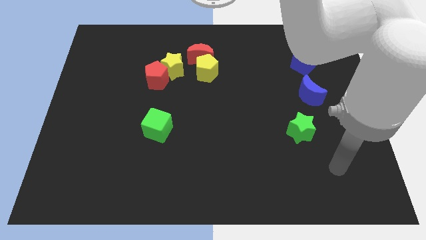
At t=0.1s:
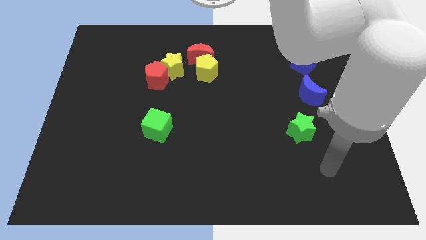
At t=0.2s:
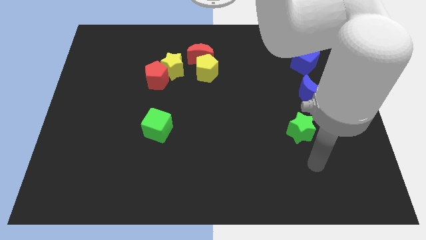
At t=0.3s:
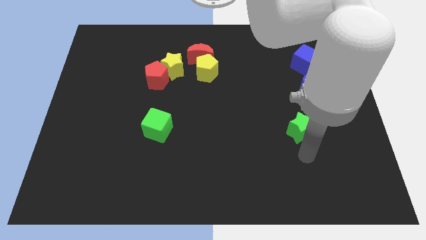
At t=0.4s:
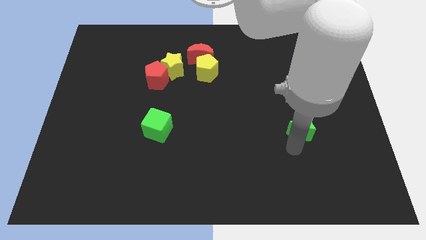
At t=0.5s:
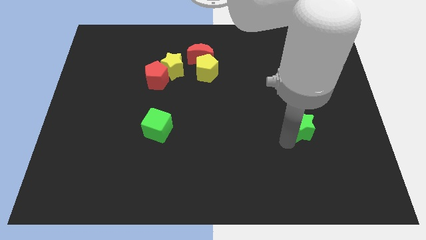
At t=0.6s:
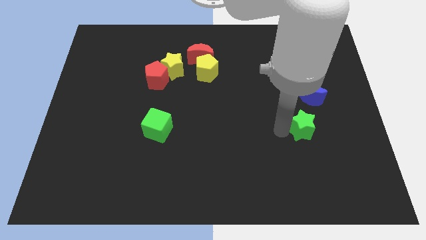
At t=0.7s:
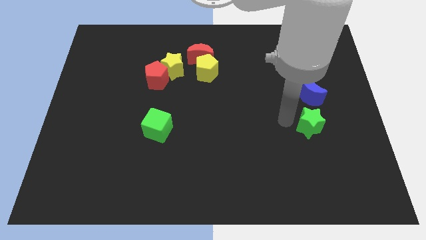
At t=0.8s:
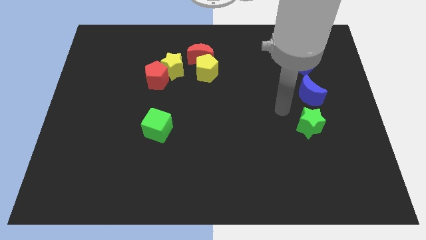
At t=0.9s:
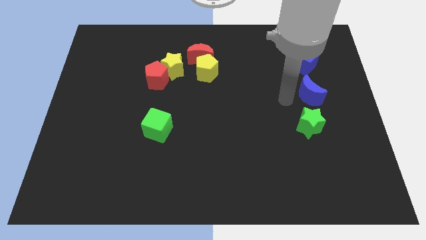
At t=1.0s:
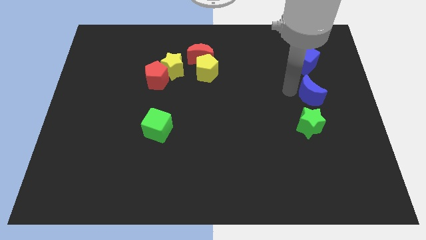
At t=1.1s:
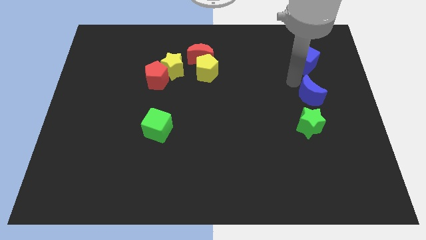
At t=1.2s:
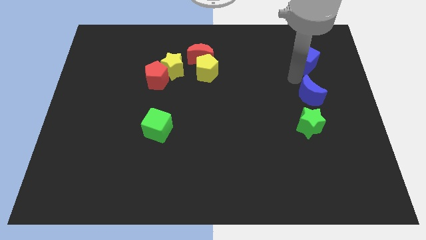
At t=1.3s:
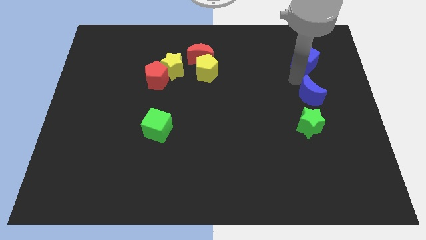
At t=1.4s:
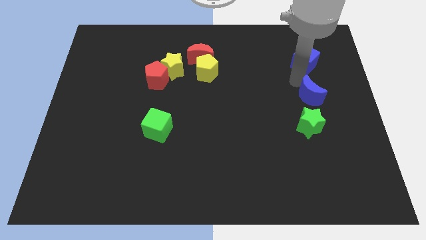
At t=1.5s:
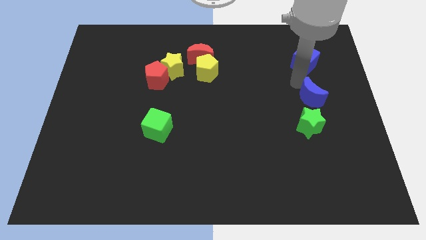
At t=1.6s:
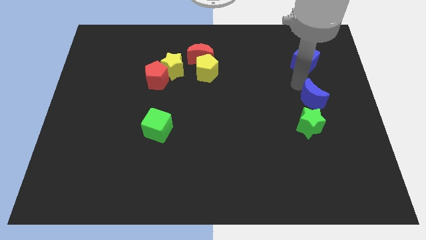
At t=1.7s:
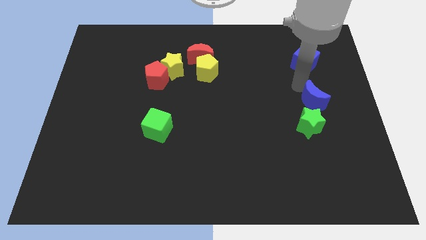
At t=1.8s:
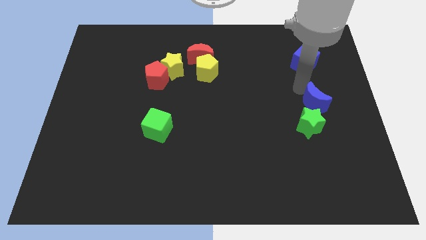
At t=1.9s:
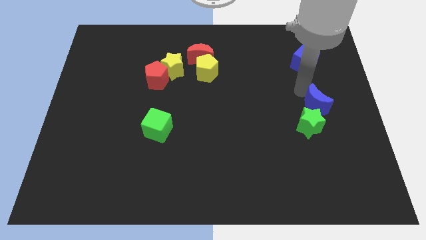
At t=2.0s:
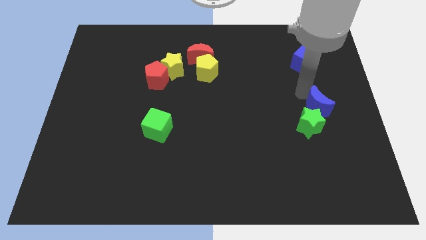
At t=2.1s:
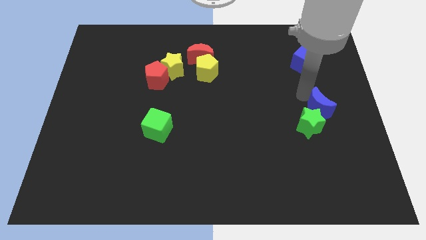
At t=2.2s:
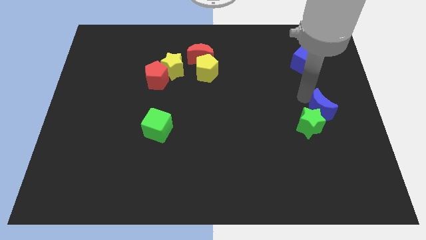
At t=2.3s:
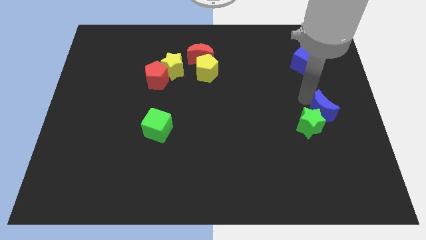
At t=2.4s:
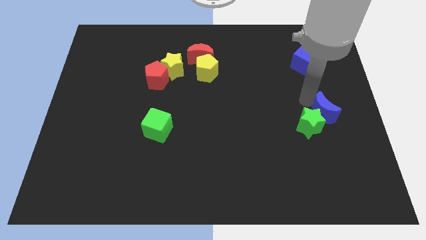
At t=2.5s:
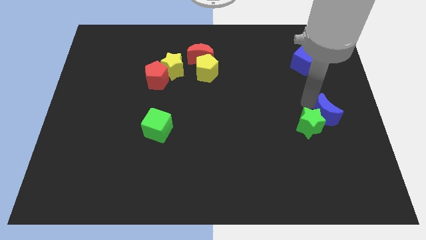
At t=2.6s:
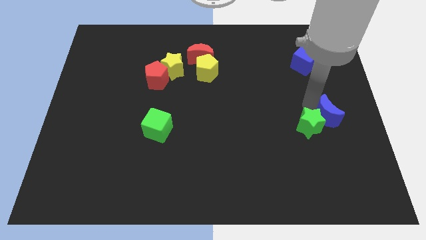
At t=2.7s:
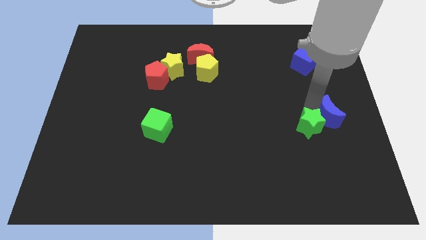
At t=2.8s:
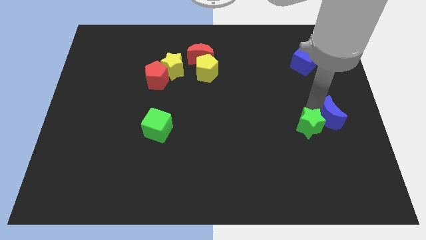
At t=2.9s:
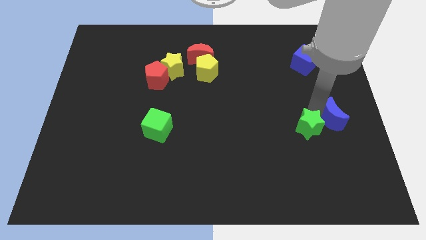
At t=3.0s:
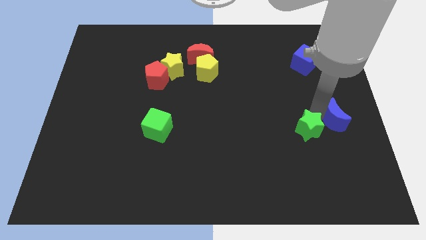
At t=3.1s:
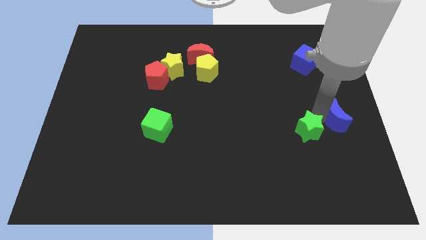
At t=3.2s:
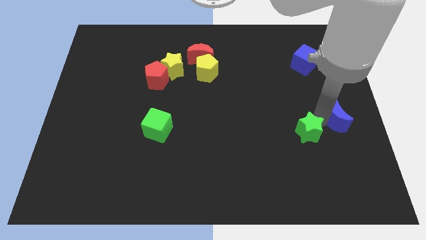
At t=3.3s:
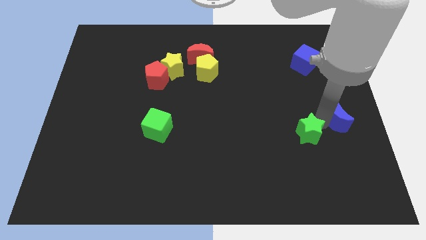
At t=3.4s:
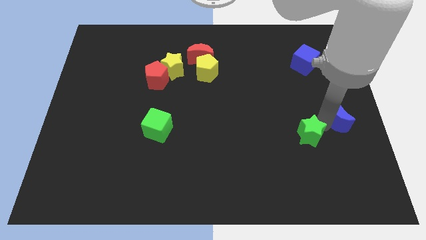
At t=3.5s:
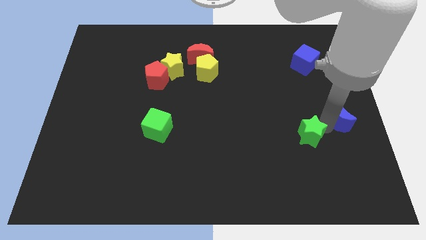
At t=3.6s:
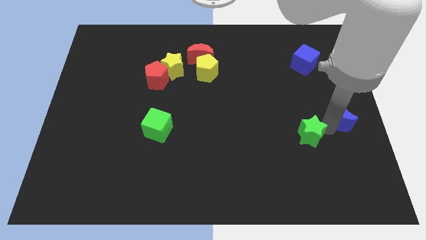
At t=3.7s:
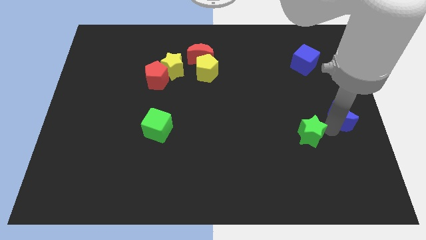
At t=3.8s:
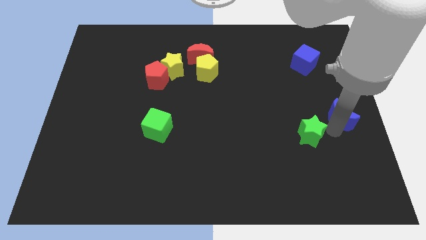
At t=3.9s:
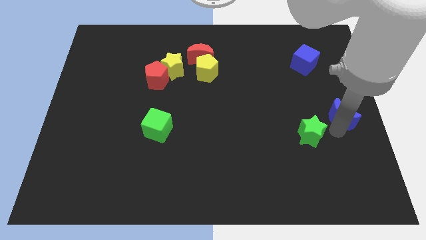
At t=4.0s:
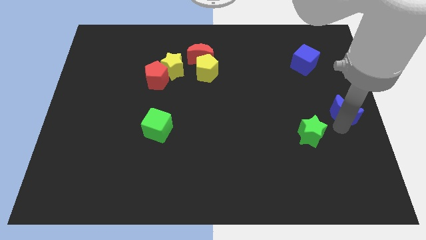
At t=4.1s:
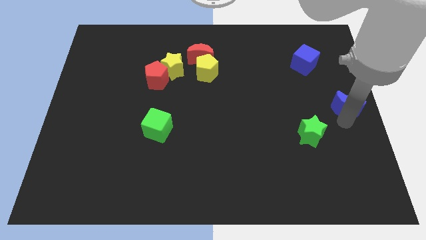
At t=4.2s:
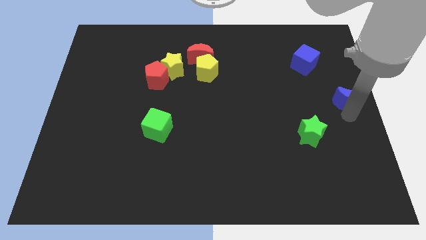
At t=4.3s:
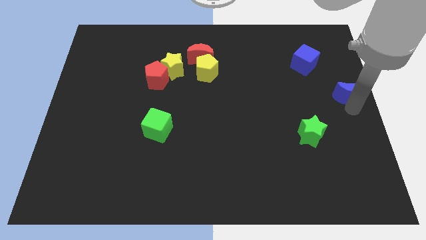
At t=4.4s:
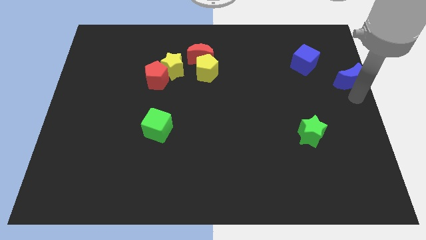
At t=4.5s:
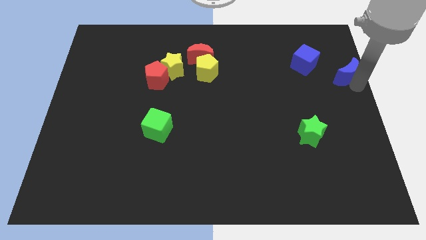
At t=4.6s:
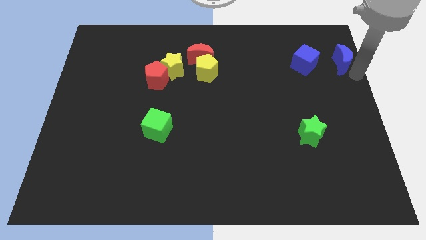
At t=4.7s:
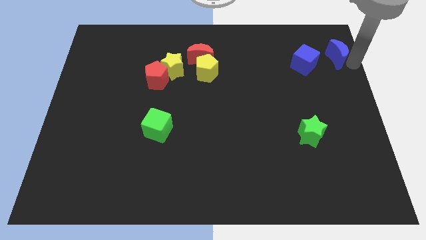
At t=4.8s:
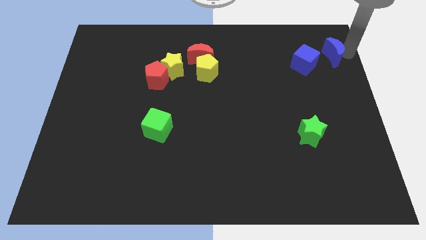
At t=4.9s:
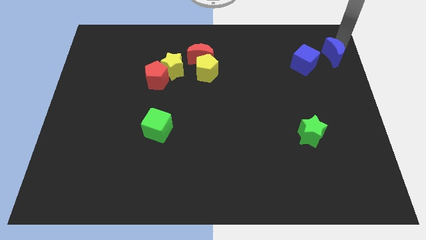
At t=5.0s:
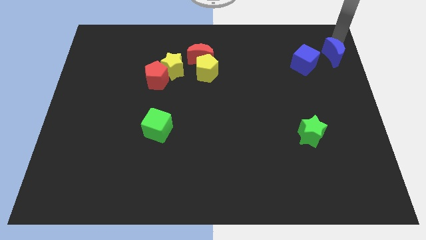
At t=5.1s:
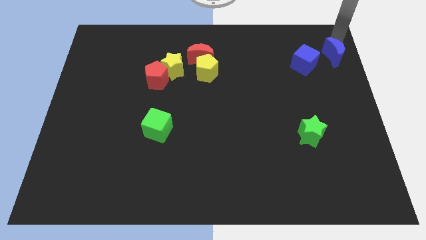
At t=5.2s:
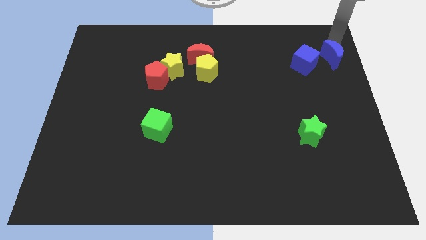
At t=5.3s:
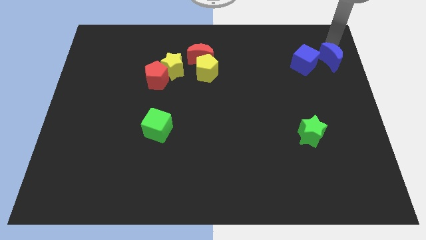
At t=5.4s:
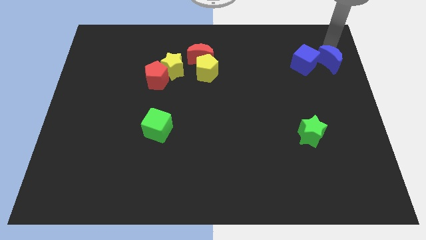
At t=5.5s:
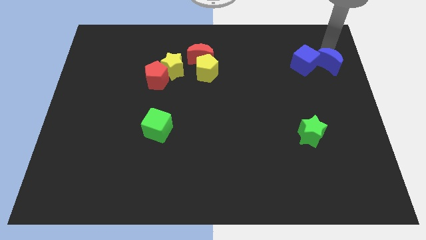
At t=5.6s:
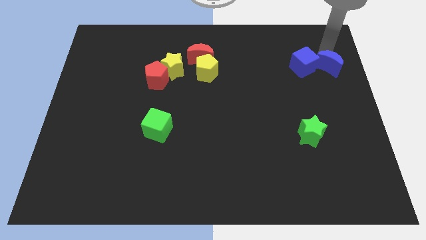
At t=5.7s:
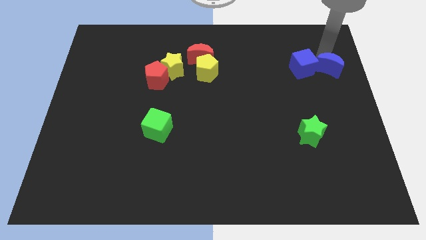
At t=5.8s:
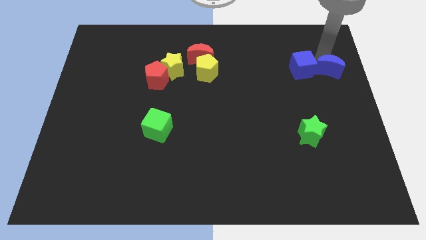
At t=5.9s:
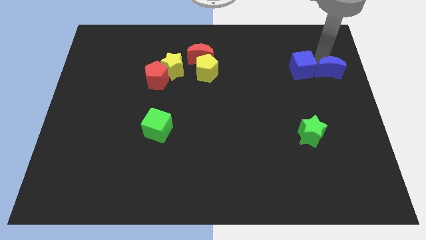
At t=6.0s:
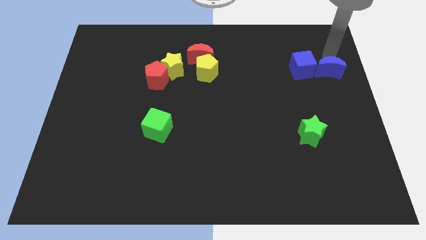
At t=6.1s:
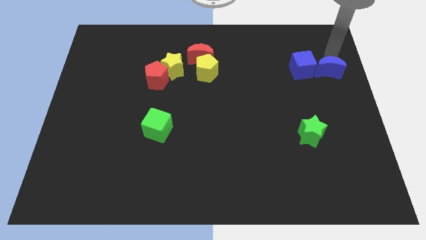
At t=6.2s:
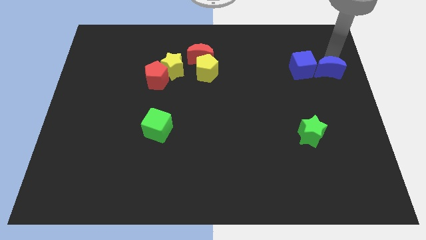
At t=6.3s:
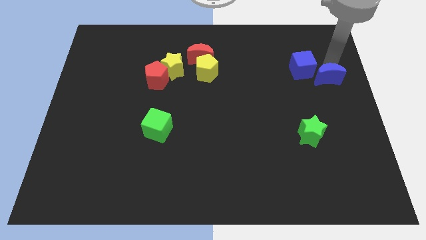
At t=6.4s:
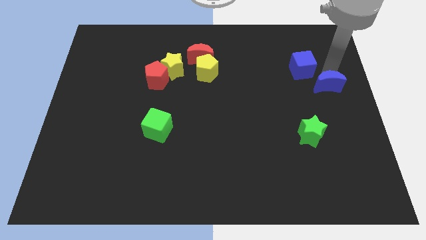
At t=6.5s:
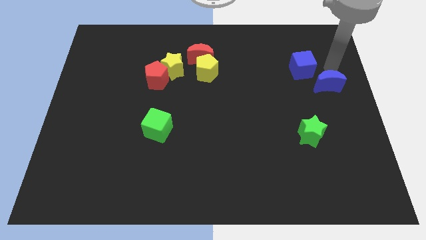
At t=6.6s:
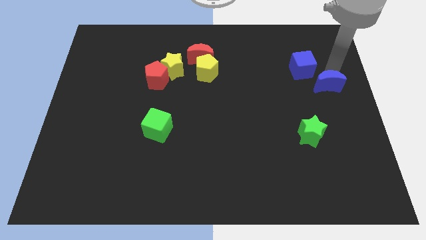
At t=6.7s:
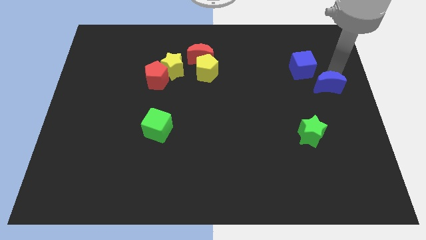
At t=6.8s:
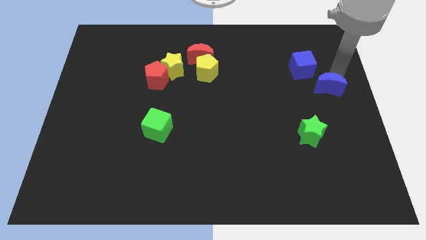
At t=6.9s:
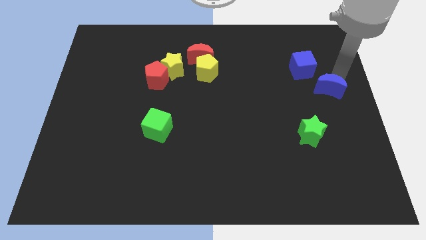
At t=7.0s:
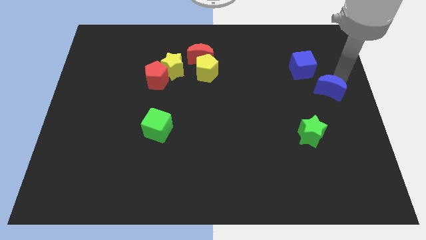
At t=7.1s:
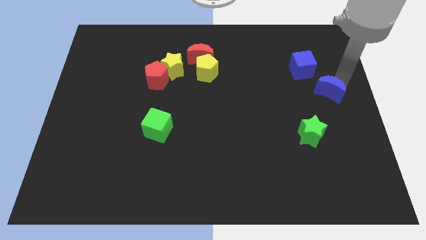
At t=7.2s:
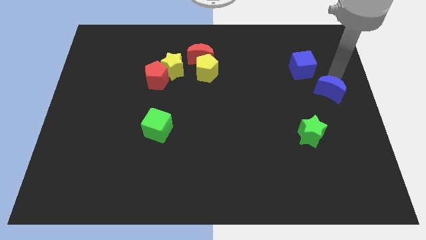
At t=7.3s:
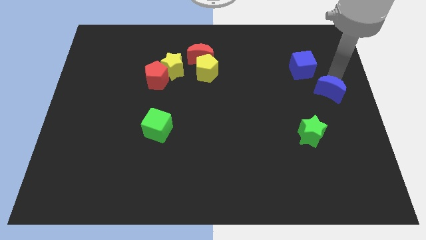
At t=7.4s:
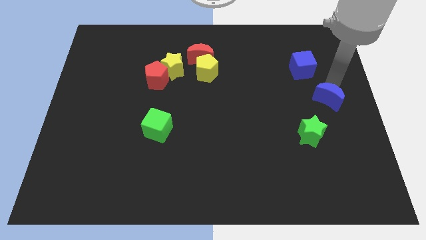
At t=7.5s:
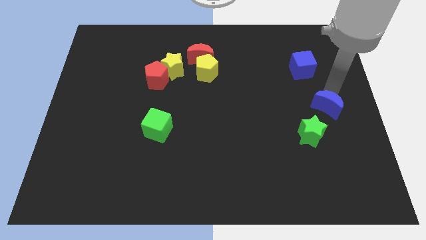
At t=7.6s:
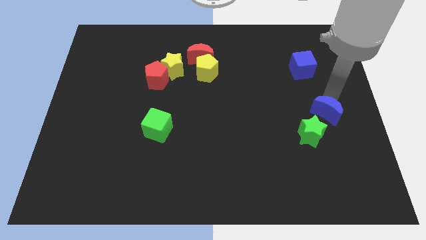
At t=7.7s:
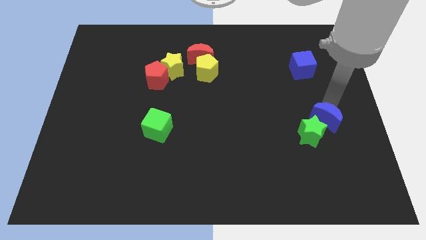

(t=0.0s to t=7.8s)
slightly push the blue moon down
